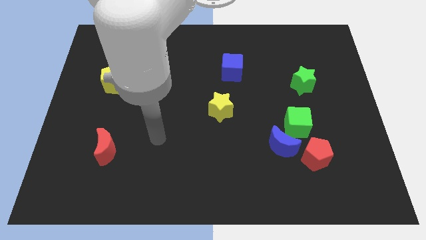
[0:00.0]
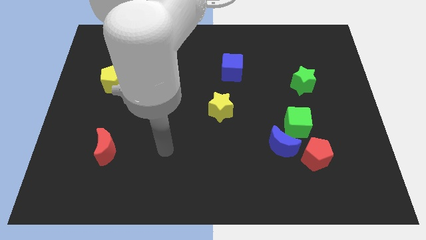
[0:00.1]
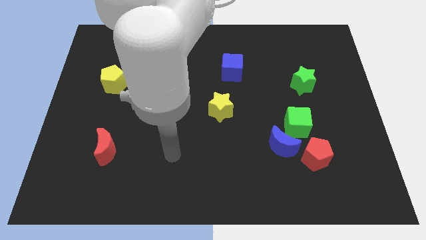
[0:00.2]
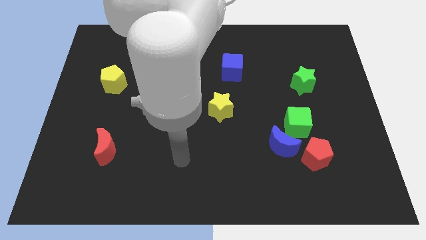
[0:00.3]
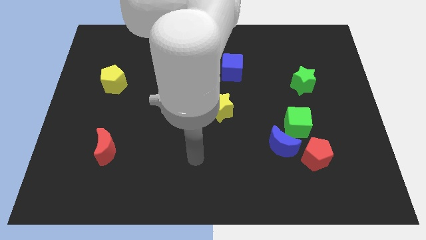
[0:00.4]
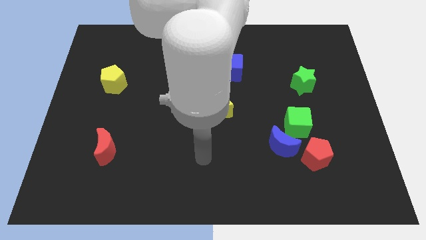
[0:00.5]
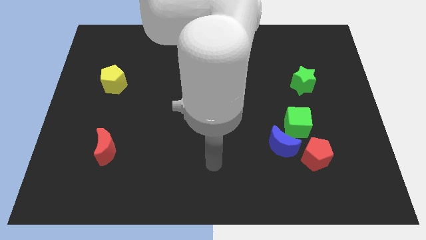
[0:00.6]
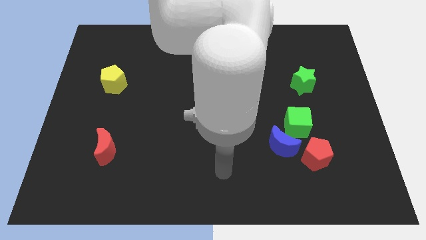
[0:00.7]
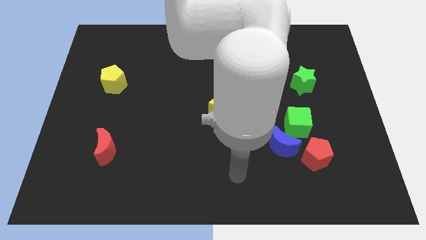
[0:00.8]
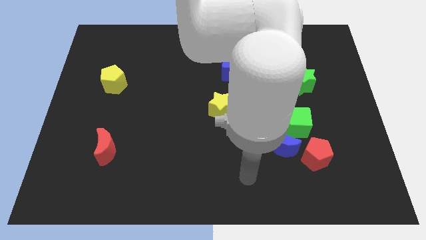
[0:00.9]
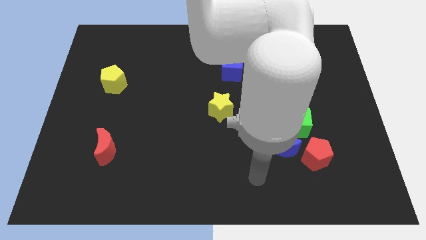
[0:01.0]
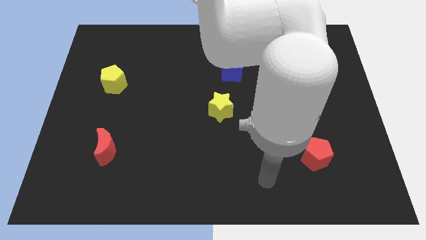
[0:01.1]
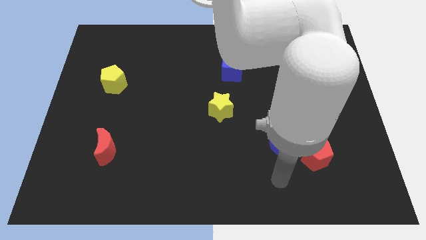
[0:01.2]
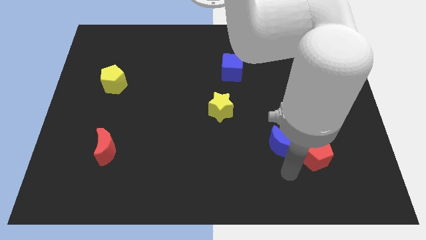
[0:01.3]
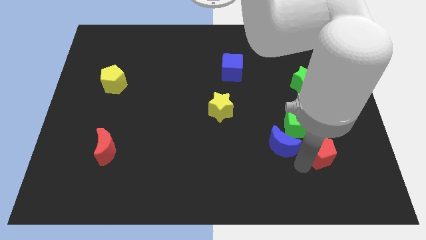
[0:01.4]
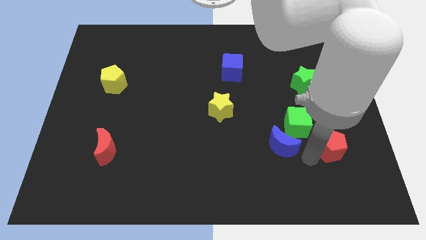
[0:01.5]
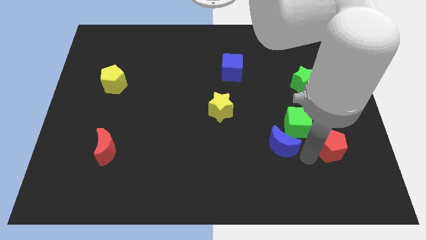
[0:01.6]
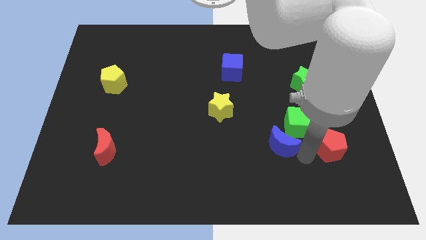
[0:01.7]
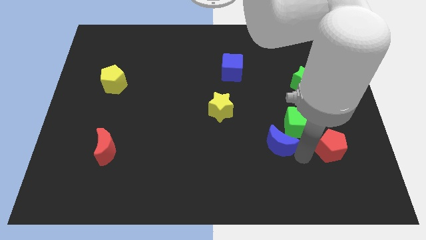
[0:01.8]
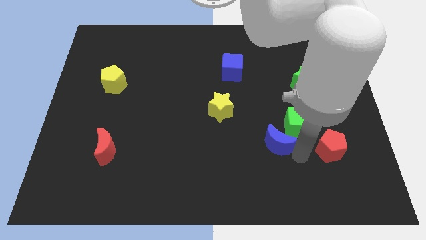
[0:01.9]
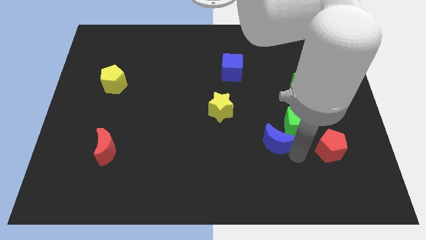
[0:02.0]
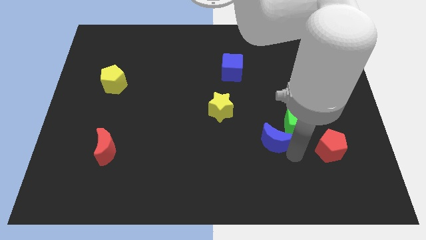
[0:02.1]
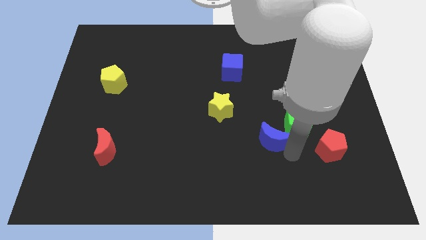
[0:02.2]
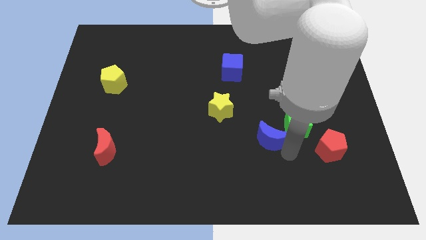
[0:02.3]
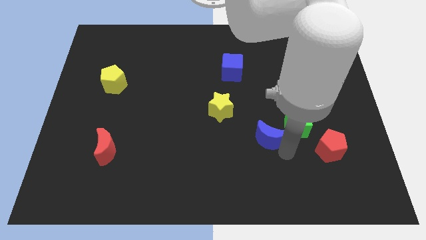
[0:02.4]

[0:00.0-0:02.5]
pull the blue moon apart from the green cube and red pentagon

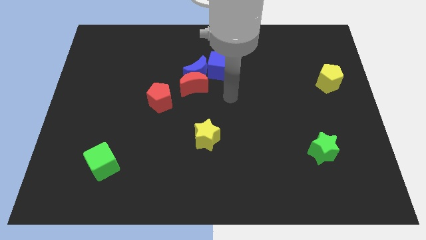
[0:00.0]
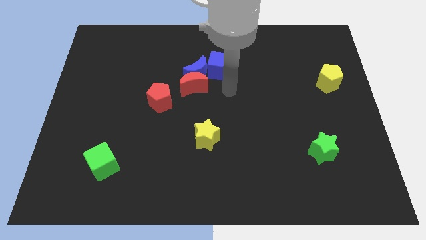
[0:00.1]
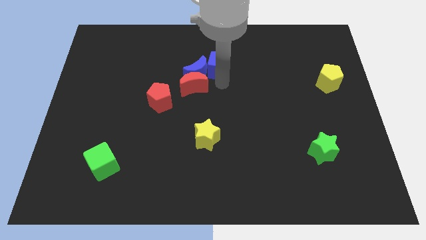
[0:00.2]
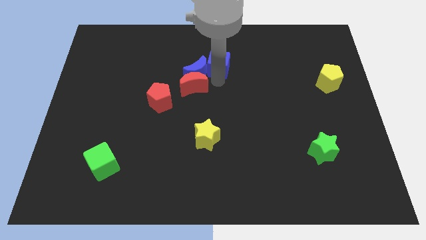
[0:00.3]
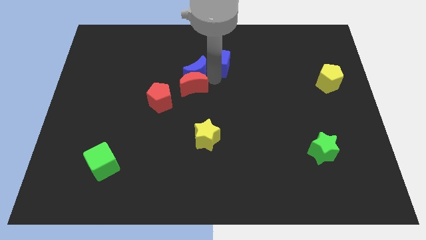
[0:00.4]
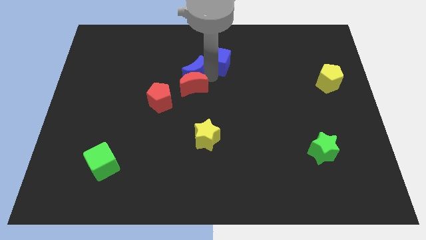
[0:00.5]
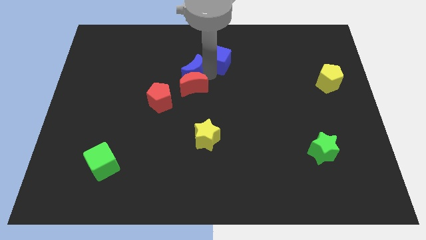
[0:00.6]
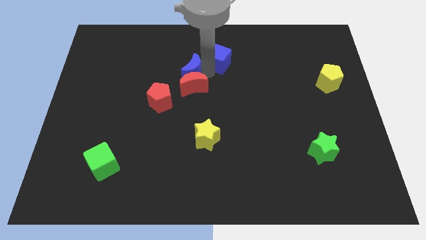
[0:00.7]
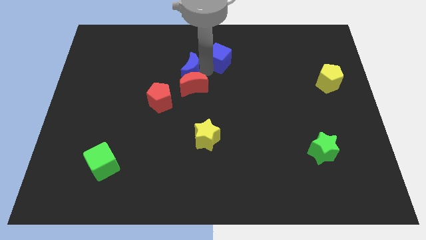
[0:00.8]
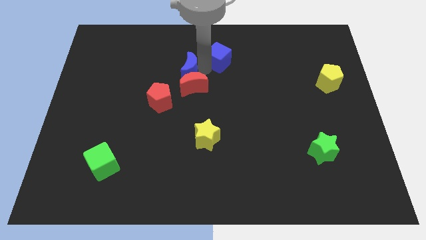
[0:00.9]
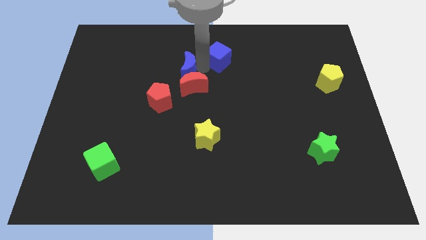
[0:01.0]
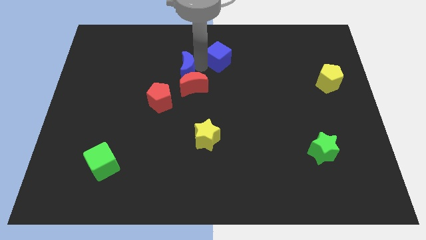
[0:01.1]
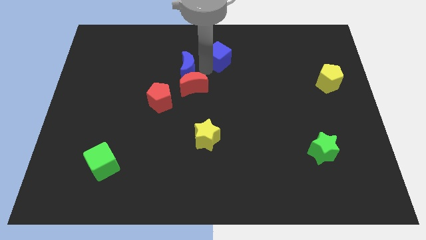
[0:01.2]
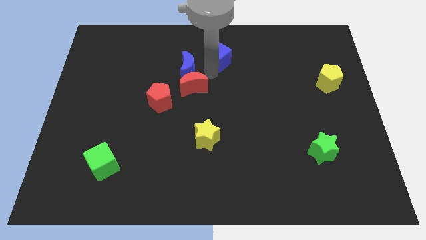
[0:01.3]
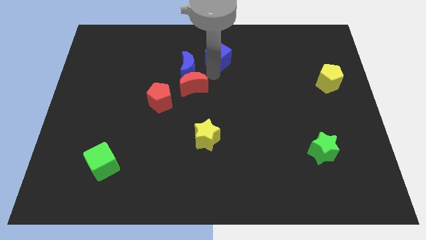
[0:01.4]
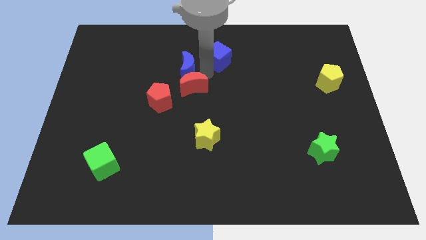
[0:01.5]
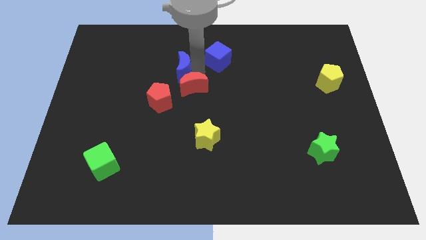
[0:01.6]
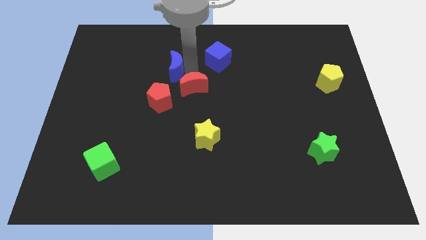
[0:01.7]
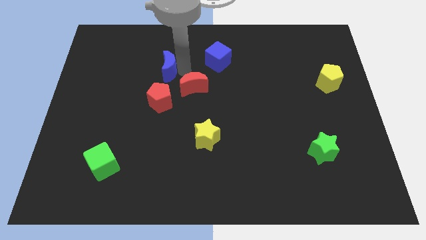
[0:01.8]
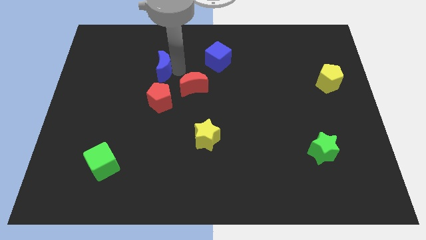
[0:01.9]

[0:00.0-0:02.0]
pull the blue moon apart from the red moon and blue cube

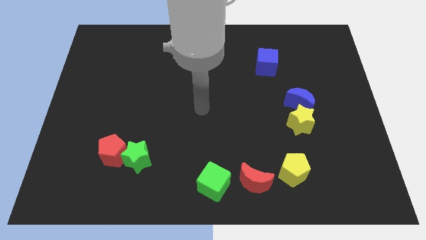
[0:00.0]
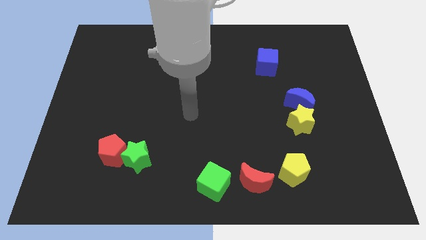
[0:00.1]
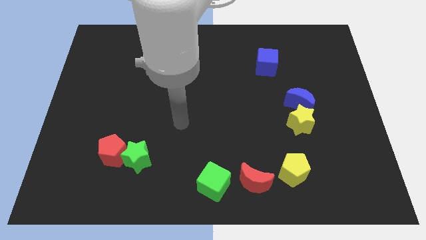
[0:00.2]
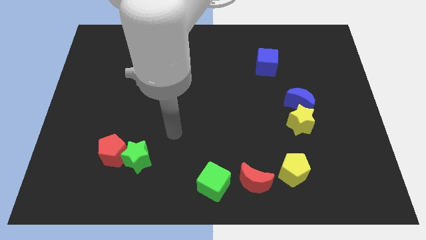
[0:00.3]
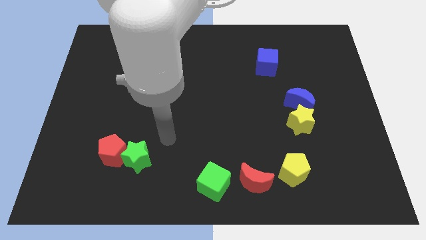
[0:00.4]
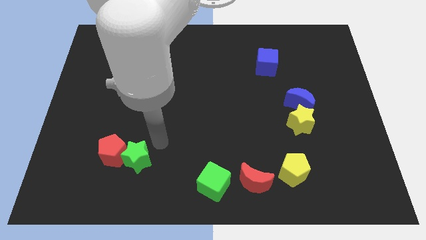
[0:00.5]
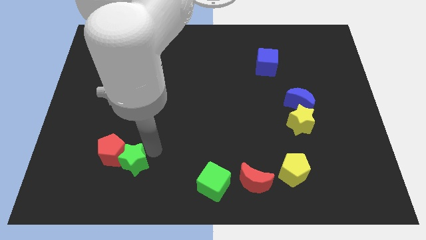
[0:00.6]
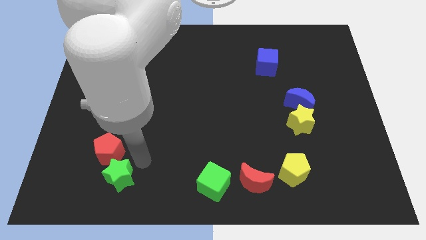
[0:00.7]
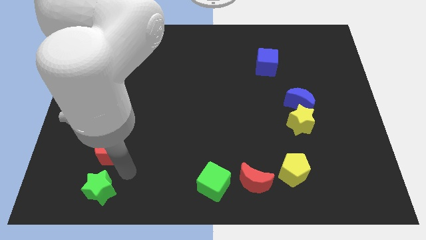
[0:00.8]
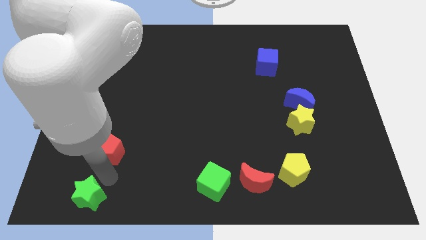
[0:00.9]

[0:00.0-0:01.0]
separate the red pentagon from the green star

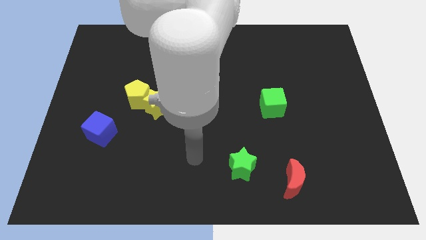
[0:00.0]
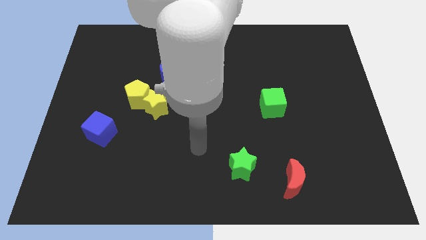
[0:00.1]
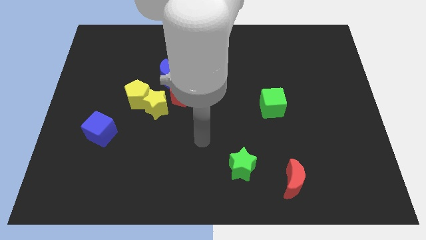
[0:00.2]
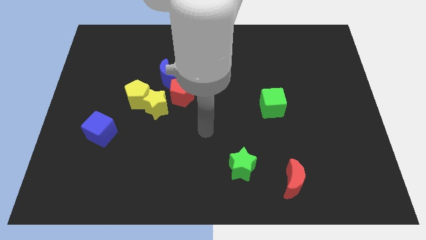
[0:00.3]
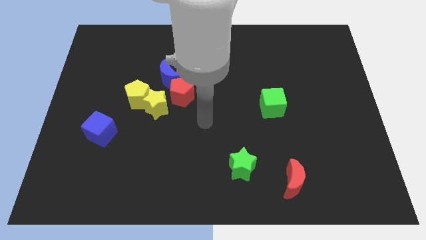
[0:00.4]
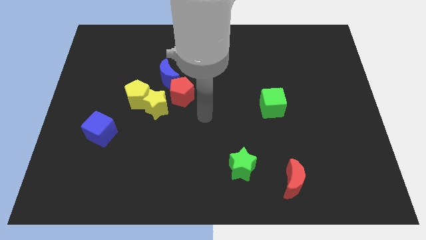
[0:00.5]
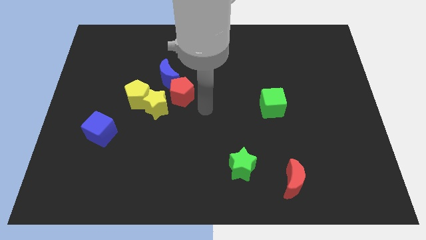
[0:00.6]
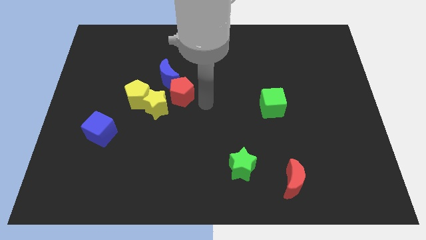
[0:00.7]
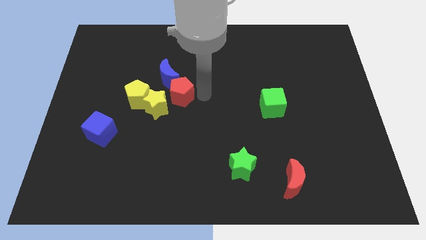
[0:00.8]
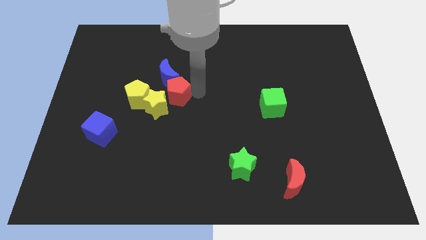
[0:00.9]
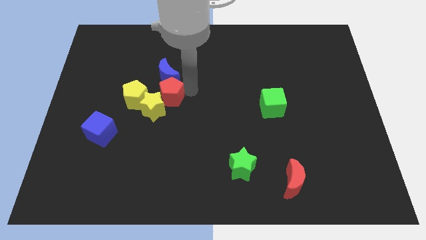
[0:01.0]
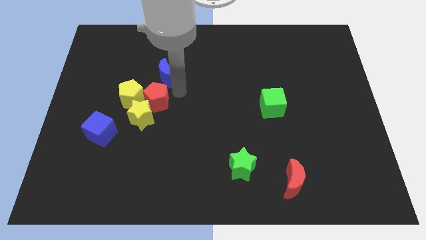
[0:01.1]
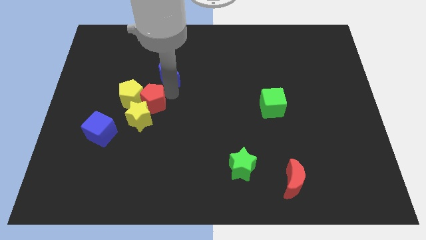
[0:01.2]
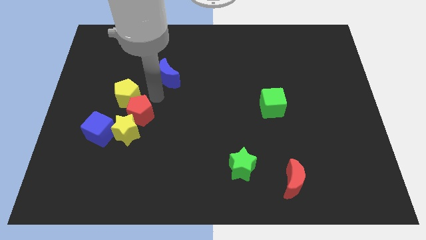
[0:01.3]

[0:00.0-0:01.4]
separate the yellow star from the group of blocks

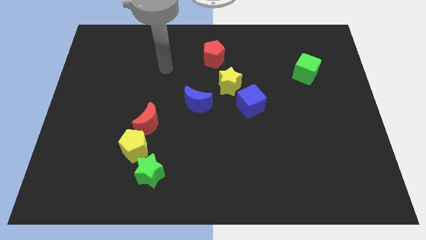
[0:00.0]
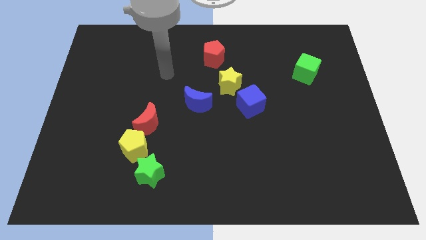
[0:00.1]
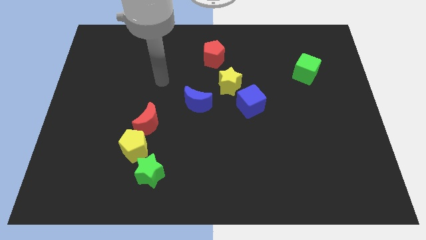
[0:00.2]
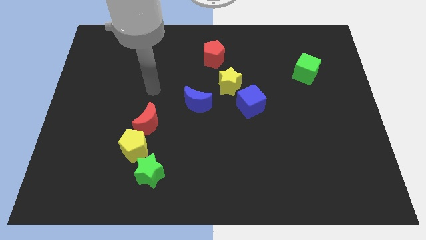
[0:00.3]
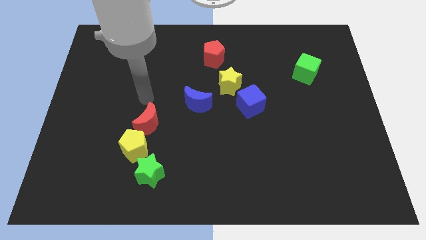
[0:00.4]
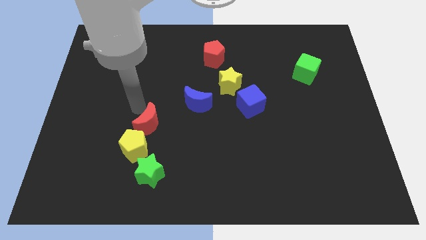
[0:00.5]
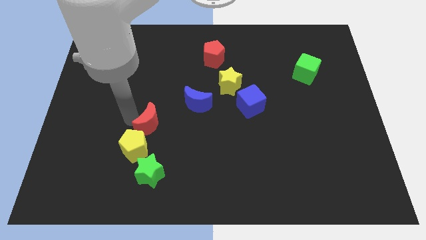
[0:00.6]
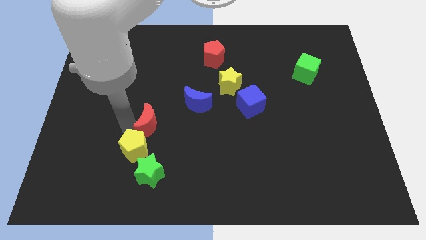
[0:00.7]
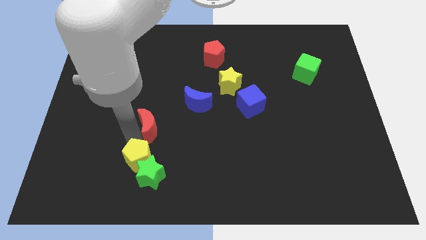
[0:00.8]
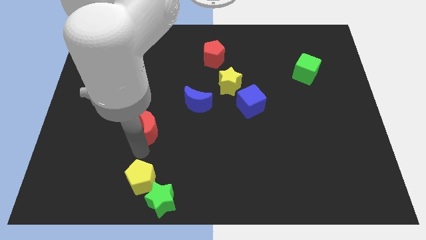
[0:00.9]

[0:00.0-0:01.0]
pull the red moon apart from the yellow pentagon

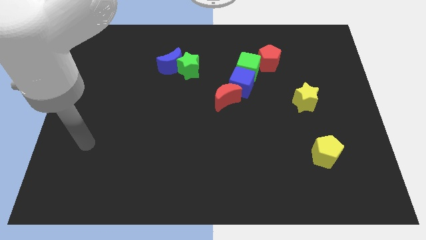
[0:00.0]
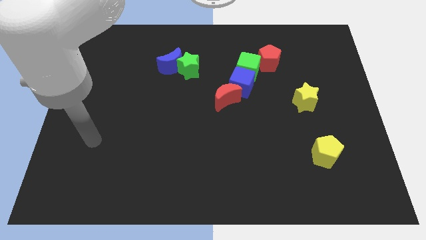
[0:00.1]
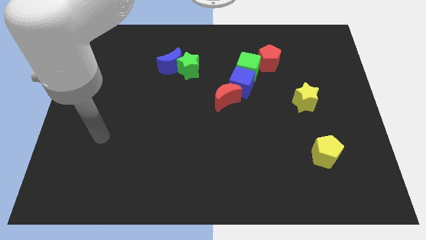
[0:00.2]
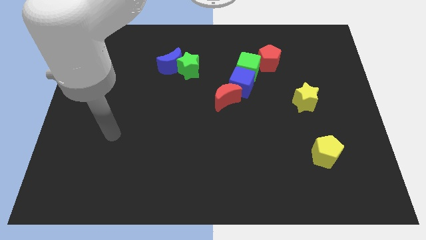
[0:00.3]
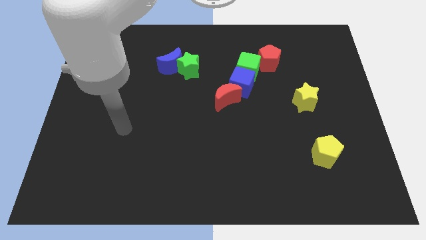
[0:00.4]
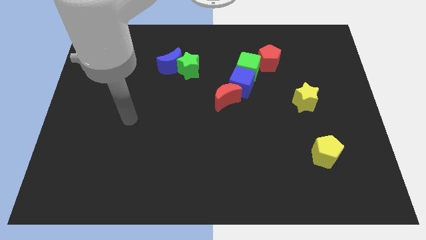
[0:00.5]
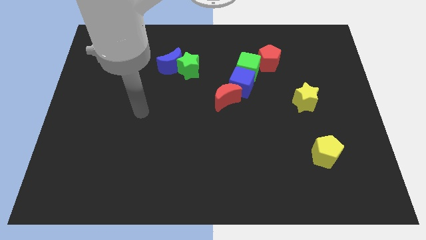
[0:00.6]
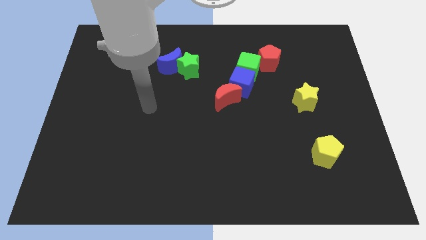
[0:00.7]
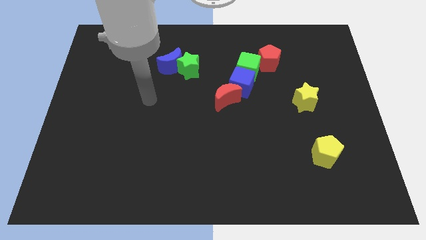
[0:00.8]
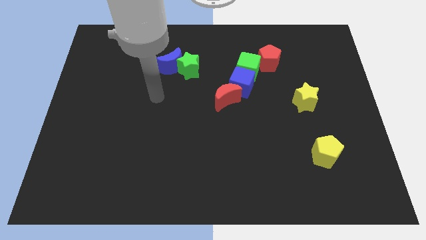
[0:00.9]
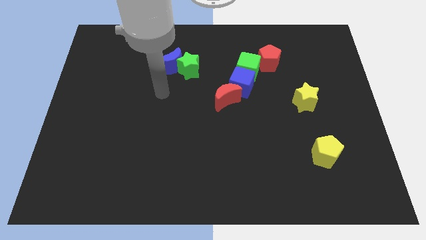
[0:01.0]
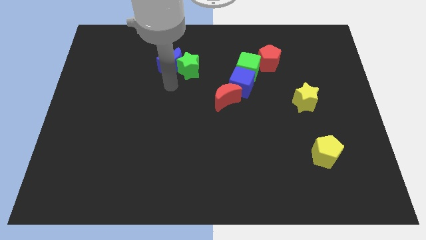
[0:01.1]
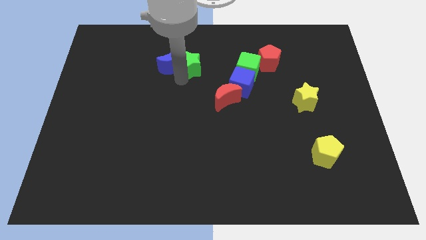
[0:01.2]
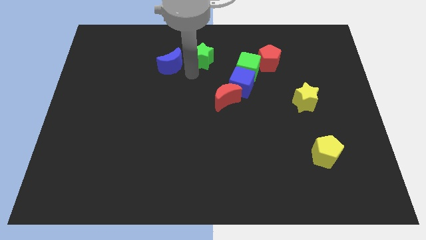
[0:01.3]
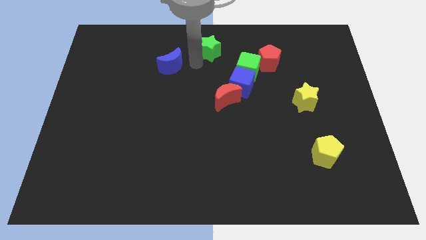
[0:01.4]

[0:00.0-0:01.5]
separate the blue moon from the green star
